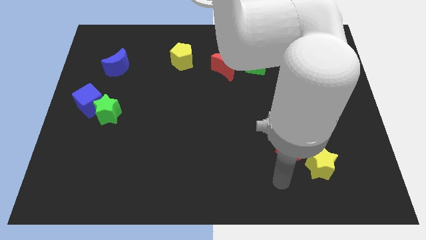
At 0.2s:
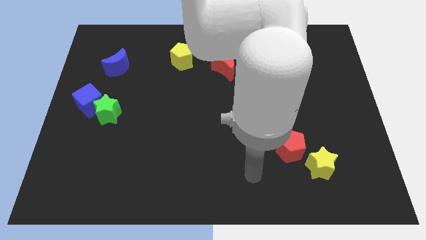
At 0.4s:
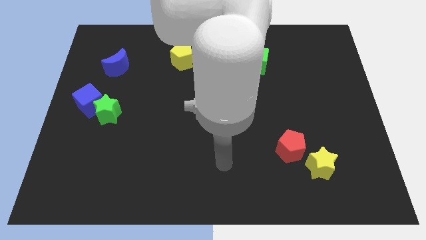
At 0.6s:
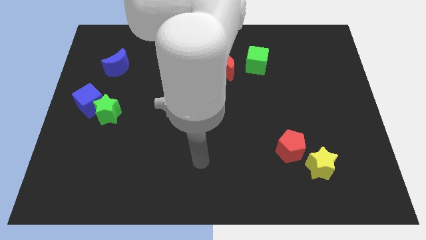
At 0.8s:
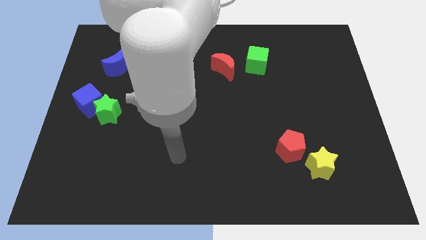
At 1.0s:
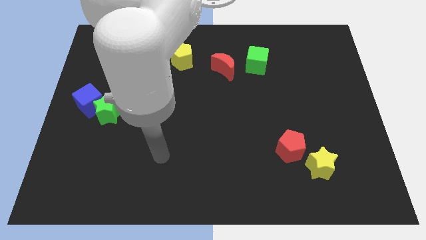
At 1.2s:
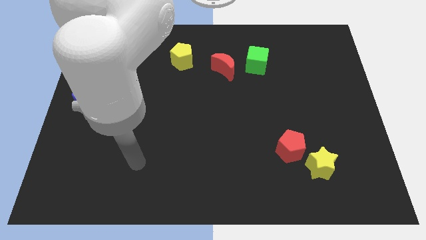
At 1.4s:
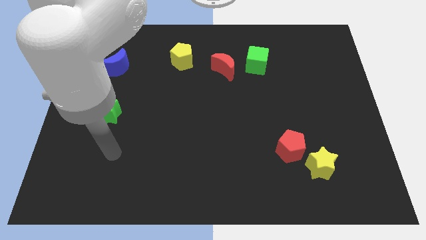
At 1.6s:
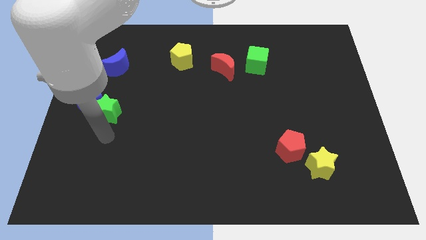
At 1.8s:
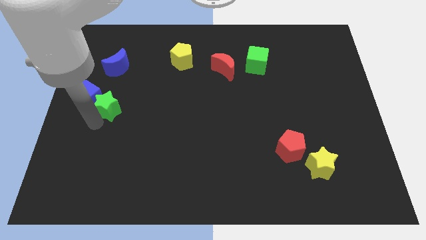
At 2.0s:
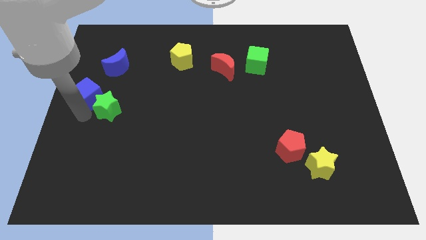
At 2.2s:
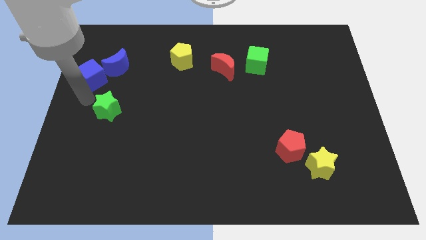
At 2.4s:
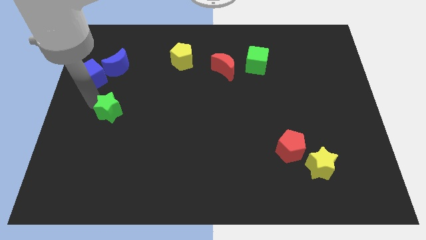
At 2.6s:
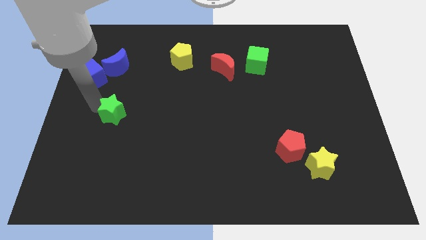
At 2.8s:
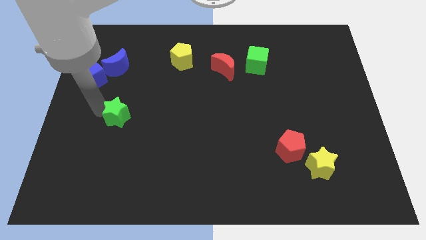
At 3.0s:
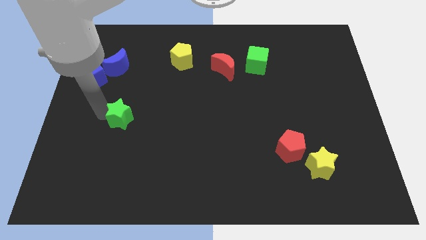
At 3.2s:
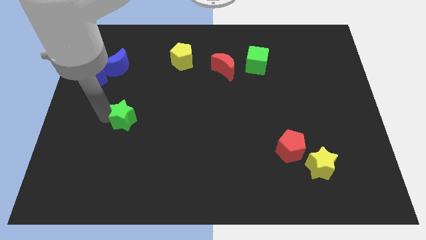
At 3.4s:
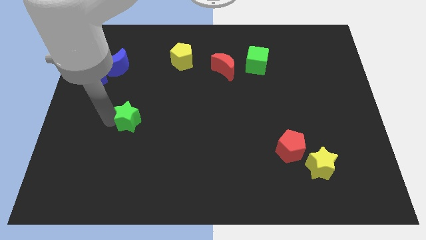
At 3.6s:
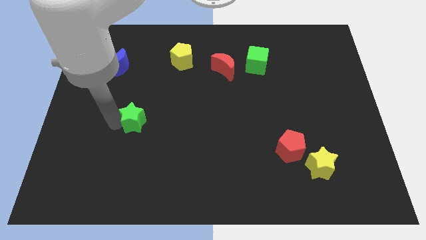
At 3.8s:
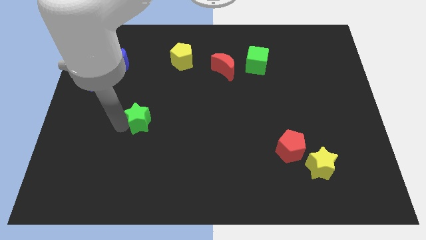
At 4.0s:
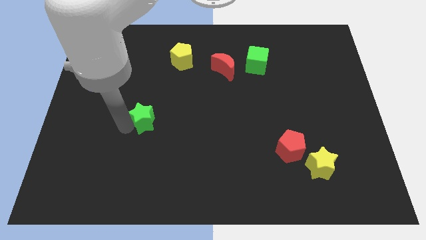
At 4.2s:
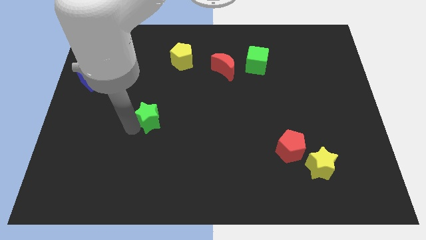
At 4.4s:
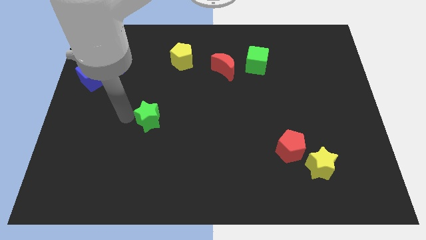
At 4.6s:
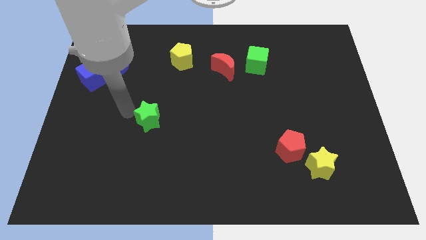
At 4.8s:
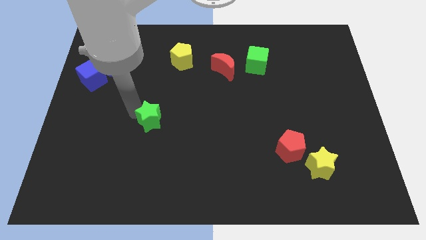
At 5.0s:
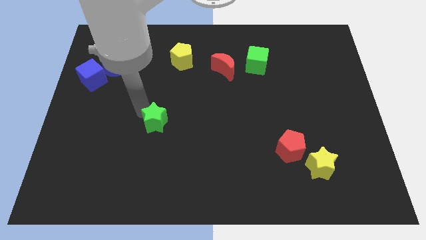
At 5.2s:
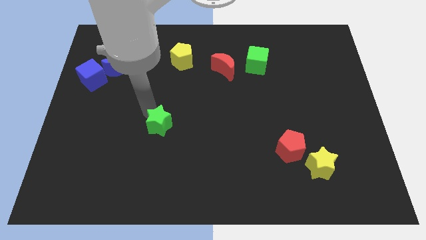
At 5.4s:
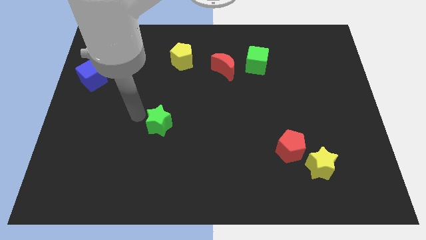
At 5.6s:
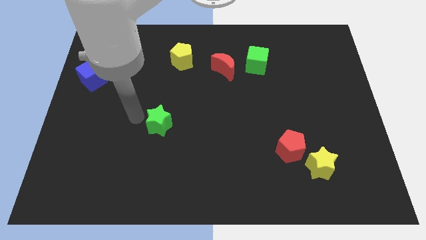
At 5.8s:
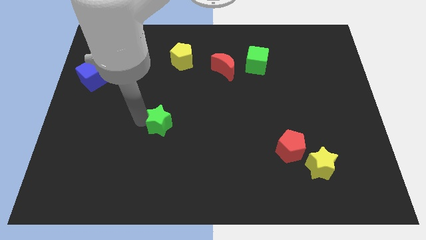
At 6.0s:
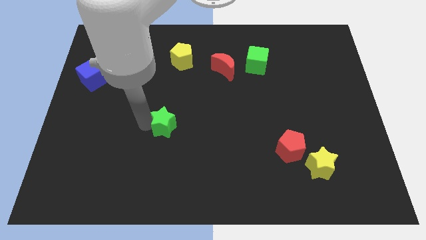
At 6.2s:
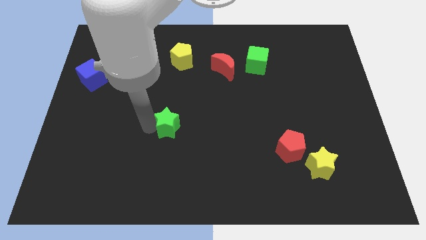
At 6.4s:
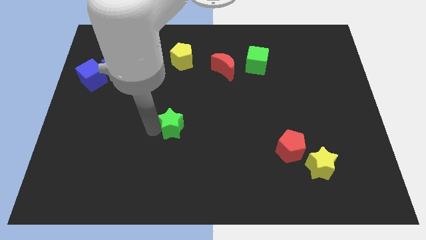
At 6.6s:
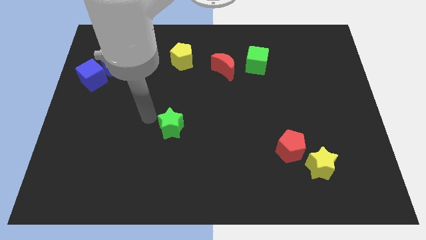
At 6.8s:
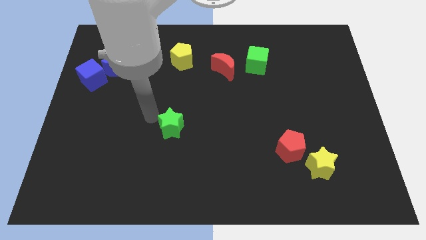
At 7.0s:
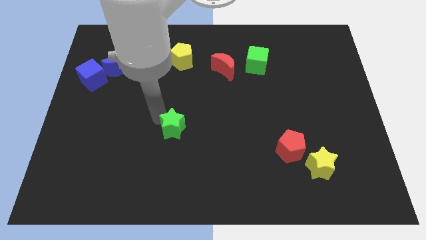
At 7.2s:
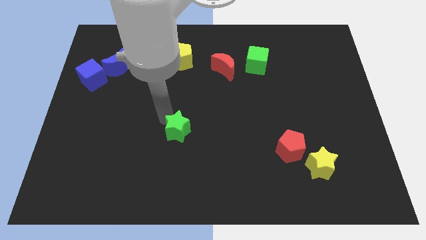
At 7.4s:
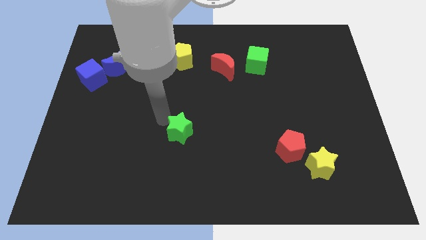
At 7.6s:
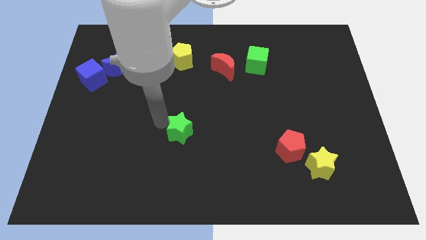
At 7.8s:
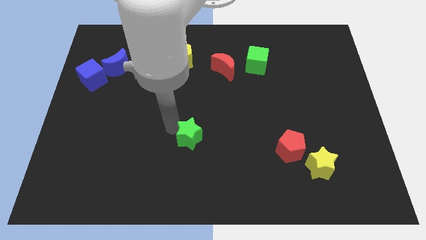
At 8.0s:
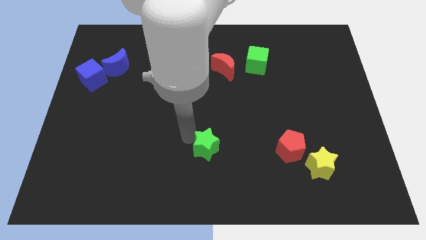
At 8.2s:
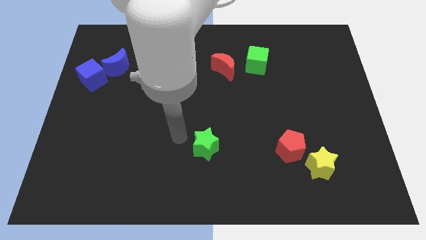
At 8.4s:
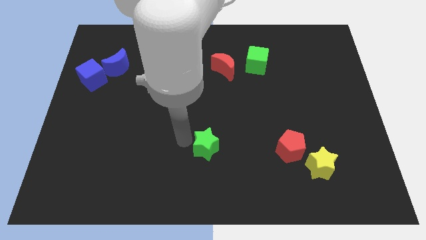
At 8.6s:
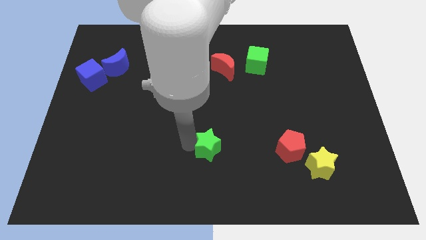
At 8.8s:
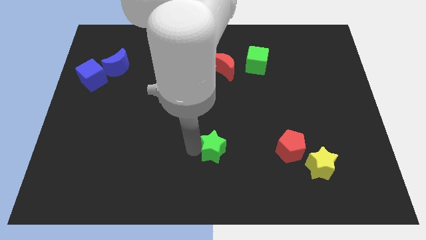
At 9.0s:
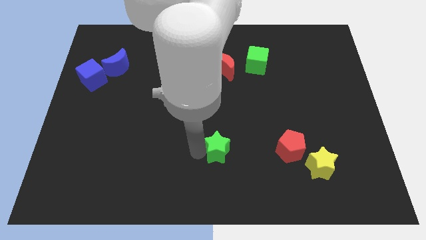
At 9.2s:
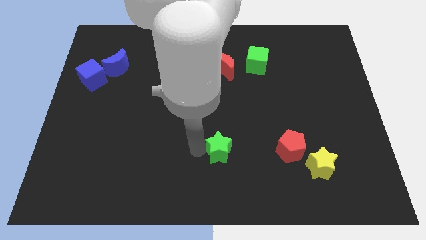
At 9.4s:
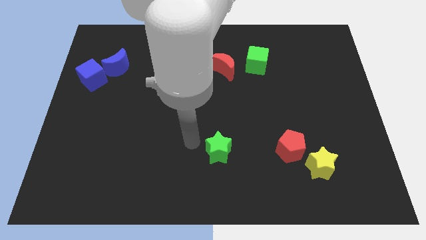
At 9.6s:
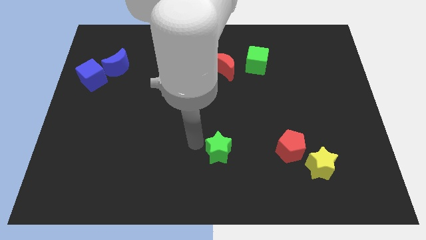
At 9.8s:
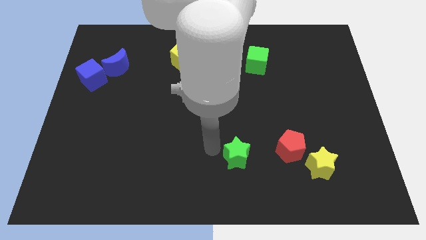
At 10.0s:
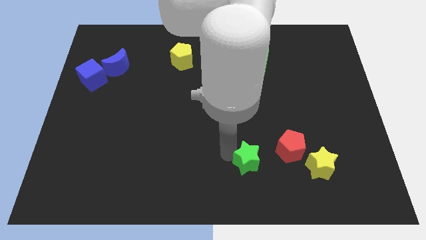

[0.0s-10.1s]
push the green star diagonally down and to the left of the red pentagon

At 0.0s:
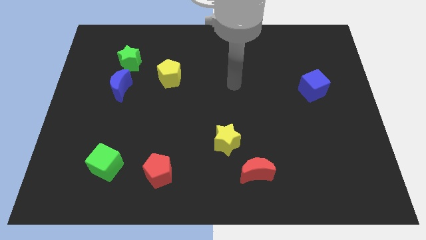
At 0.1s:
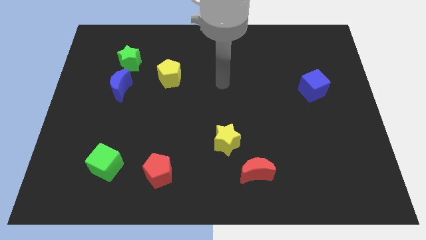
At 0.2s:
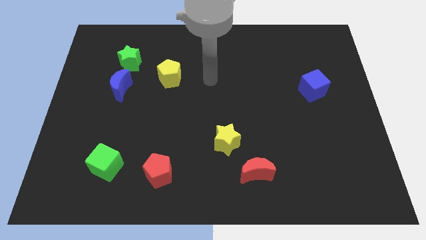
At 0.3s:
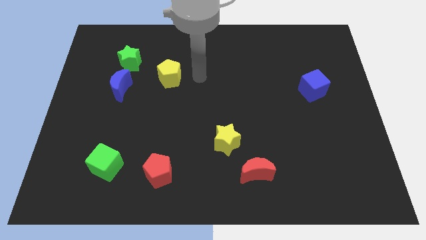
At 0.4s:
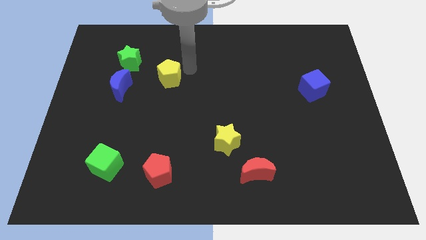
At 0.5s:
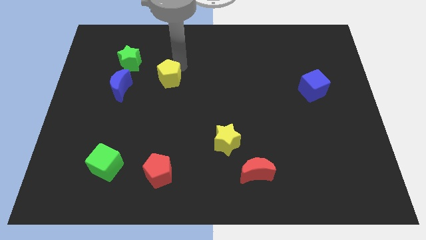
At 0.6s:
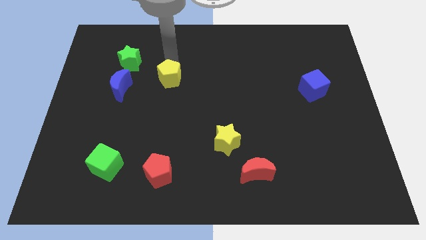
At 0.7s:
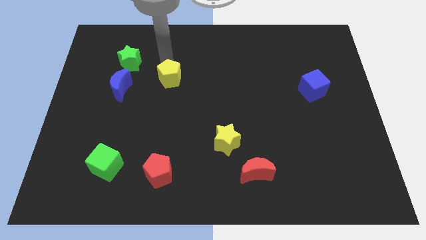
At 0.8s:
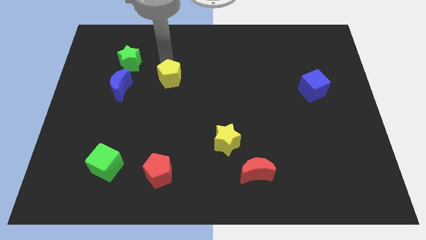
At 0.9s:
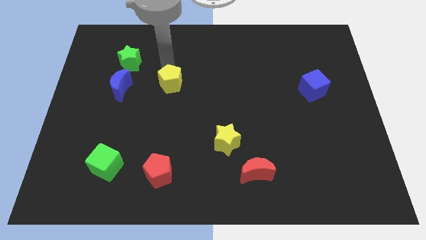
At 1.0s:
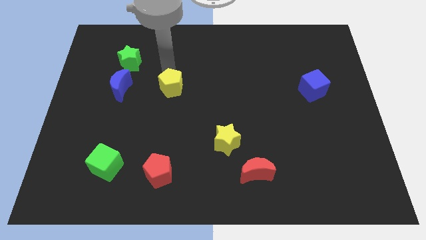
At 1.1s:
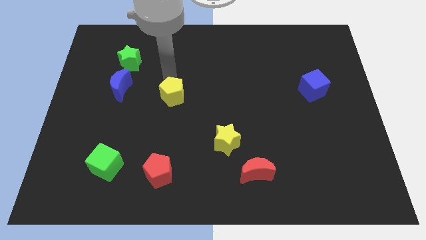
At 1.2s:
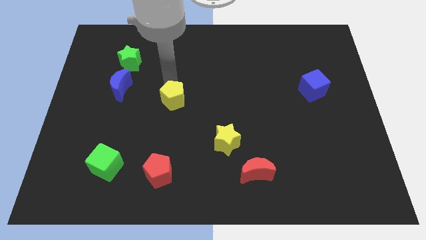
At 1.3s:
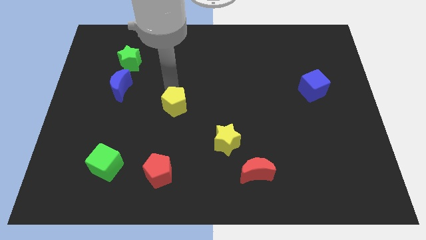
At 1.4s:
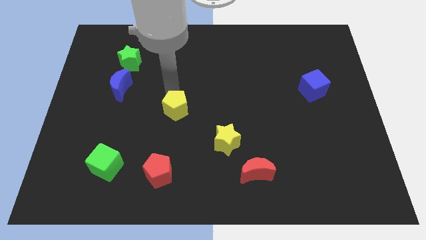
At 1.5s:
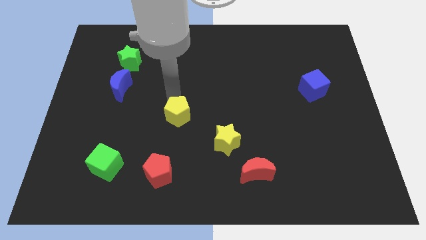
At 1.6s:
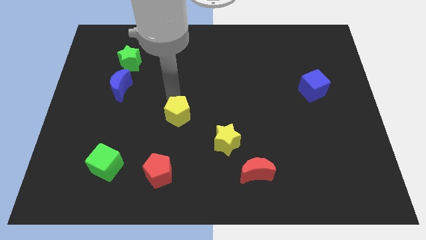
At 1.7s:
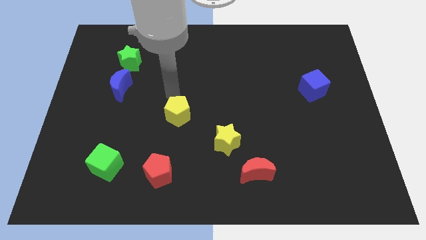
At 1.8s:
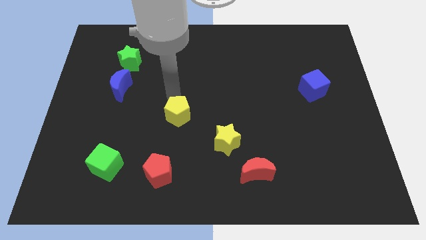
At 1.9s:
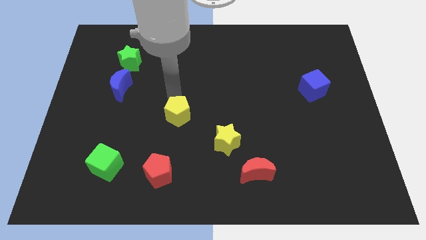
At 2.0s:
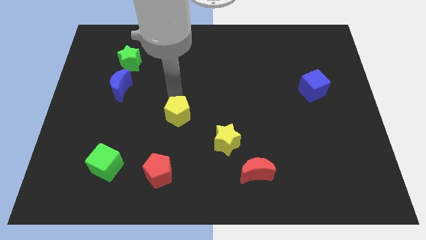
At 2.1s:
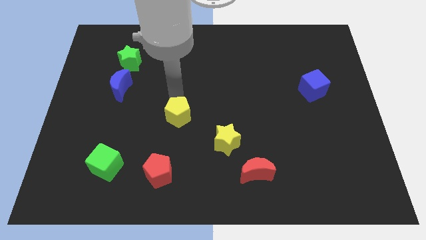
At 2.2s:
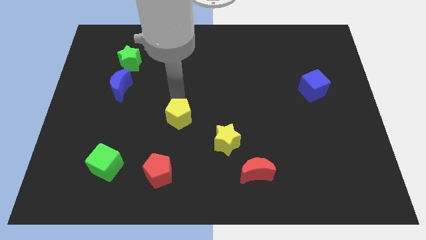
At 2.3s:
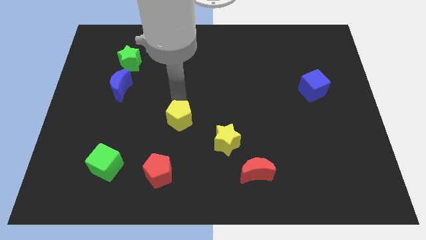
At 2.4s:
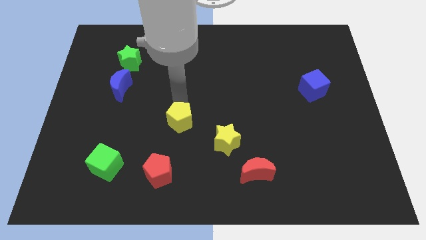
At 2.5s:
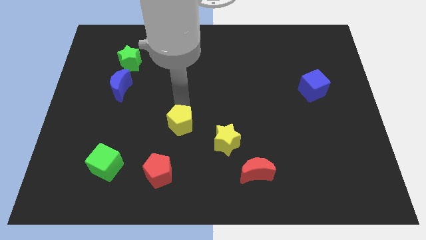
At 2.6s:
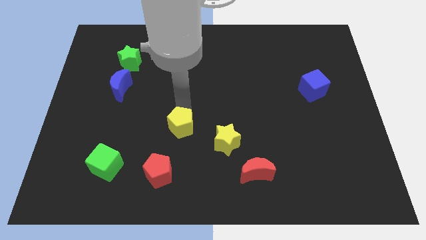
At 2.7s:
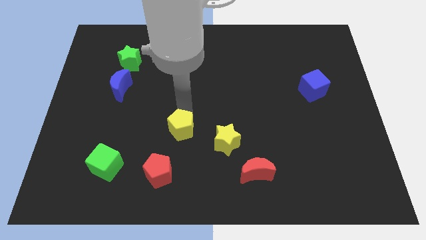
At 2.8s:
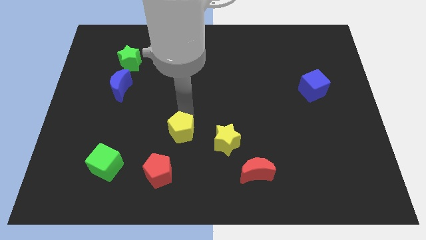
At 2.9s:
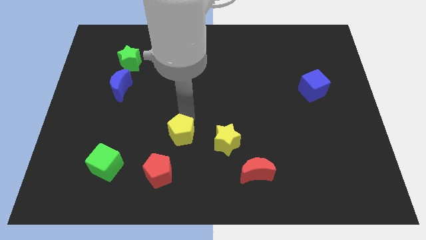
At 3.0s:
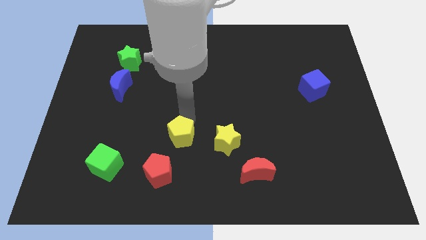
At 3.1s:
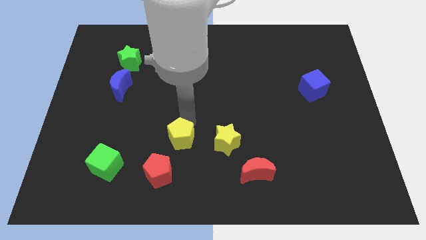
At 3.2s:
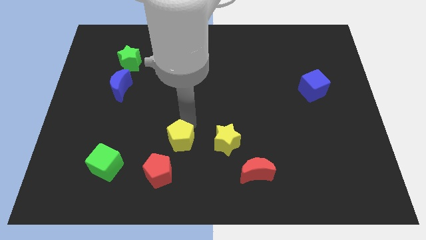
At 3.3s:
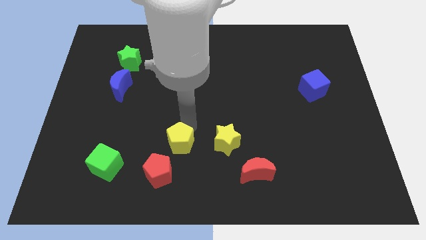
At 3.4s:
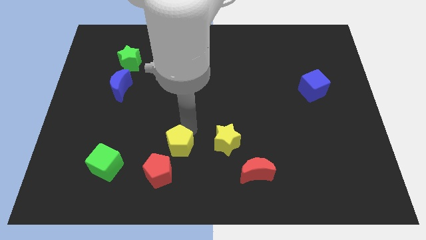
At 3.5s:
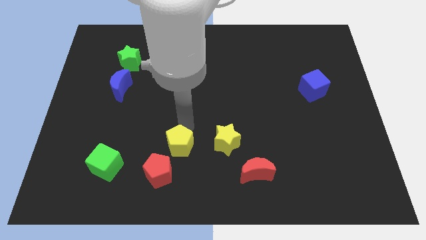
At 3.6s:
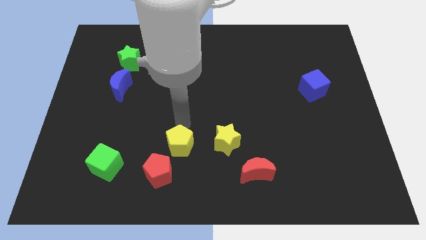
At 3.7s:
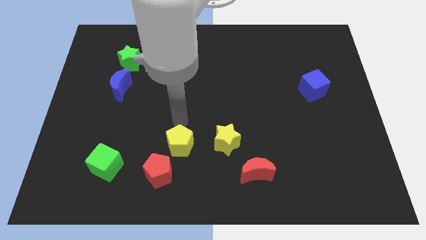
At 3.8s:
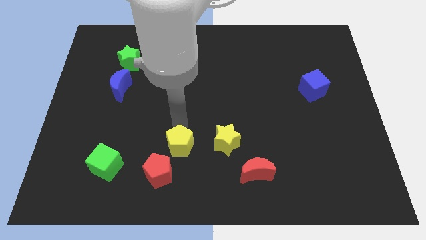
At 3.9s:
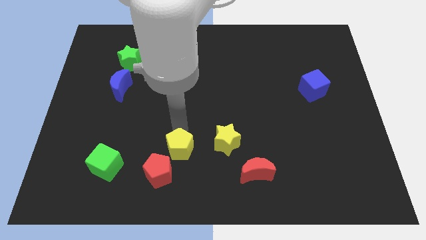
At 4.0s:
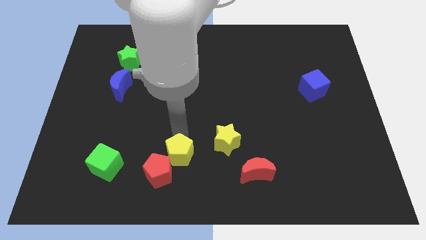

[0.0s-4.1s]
put the yellow pentagon to the right of the green cube
